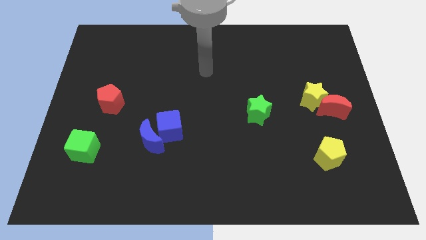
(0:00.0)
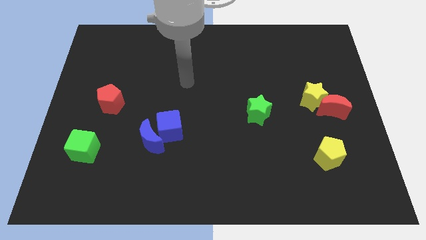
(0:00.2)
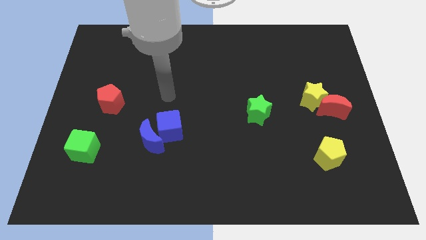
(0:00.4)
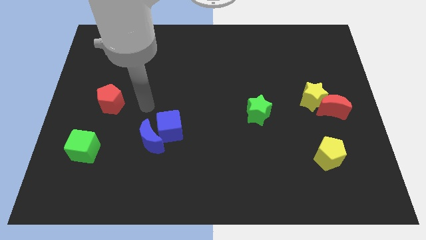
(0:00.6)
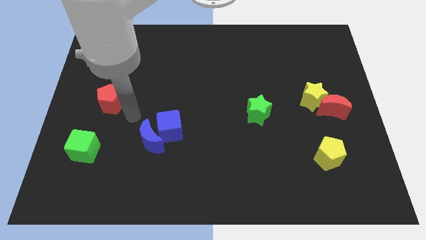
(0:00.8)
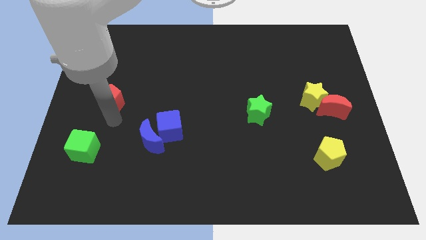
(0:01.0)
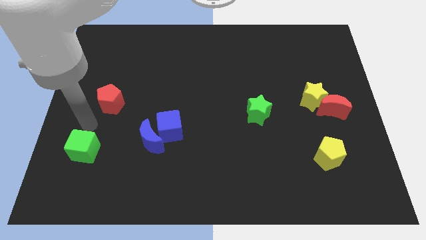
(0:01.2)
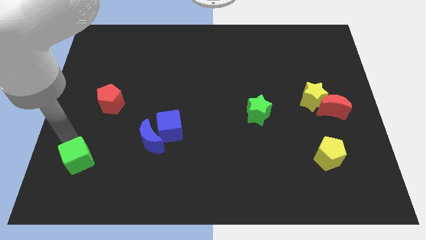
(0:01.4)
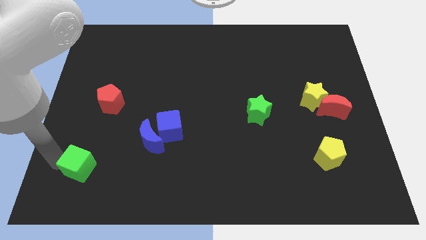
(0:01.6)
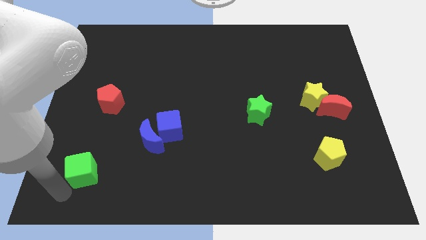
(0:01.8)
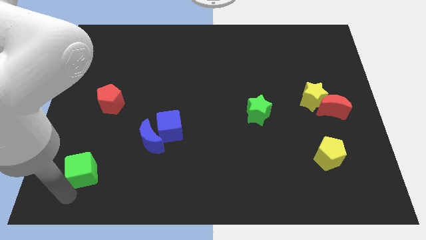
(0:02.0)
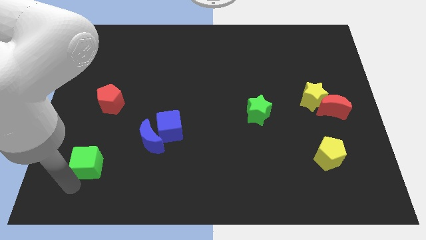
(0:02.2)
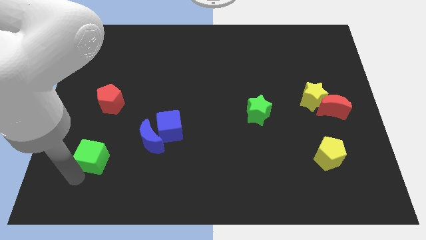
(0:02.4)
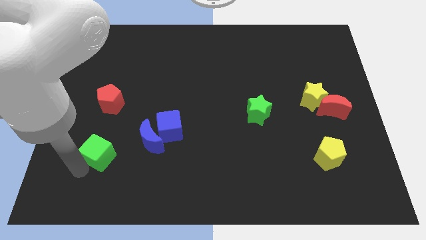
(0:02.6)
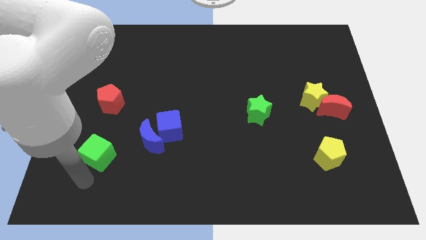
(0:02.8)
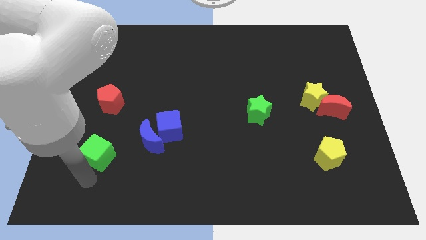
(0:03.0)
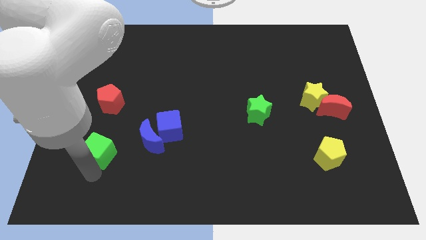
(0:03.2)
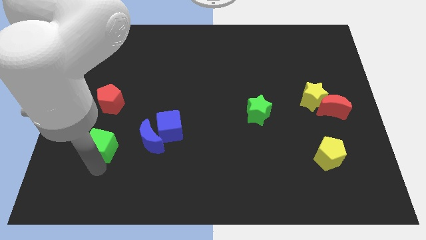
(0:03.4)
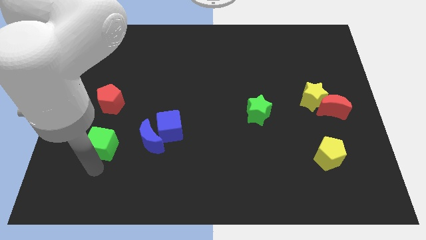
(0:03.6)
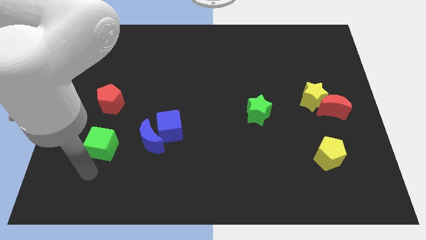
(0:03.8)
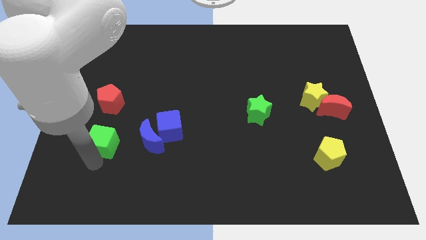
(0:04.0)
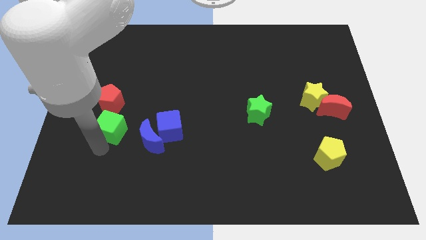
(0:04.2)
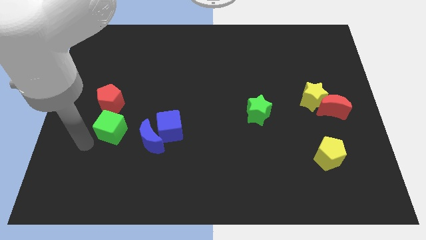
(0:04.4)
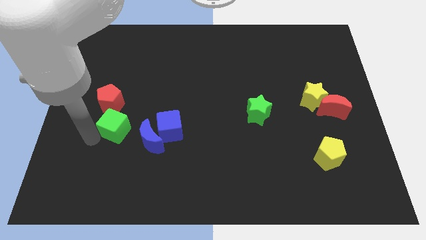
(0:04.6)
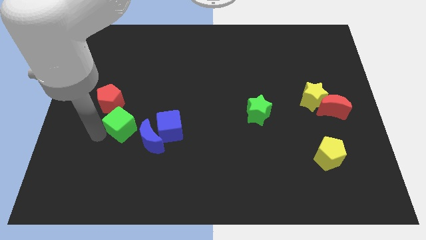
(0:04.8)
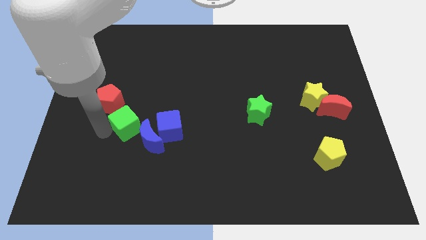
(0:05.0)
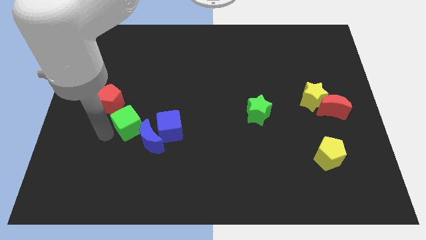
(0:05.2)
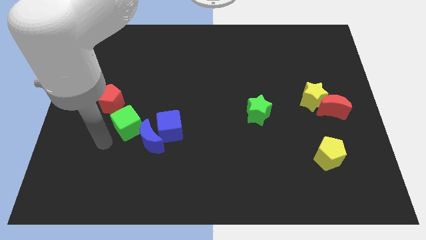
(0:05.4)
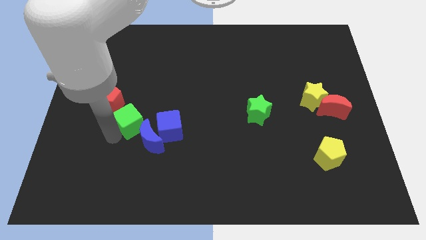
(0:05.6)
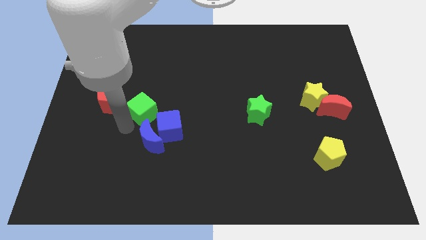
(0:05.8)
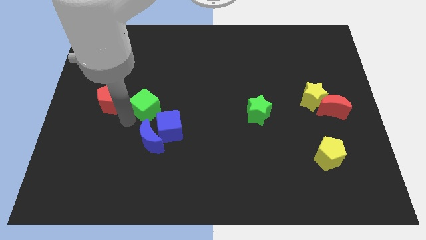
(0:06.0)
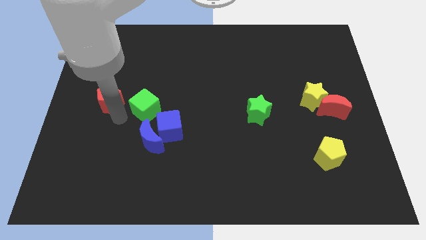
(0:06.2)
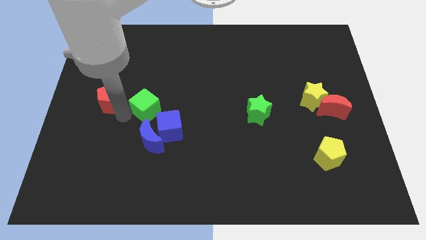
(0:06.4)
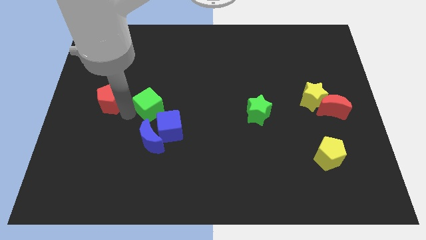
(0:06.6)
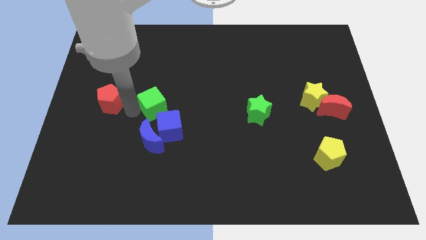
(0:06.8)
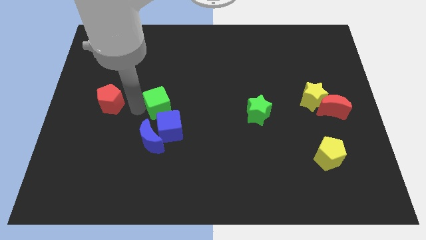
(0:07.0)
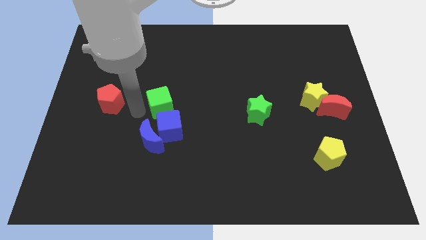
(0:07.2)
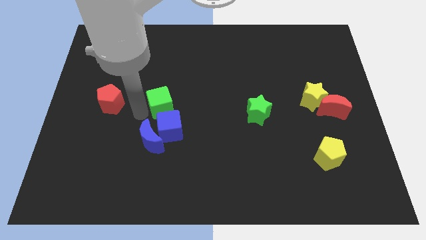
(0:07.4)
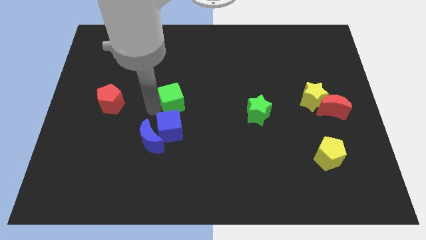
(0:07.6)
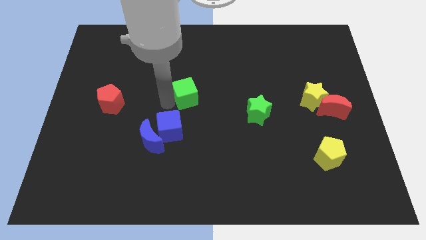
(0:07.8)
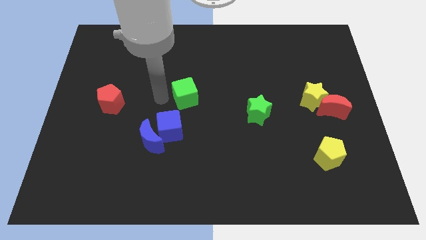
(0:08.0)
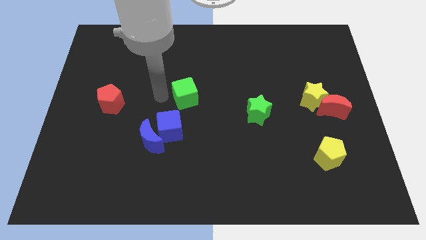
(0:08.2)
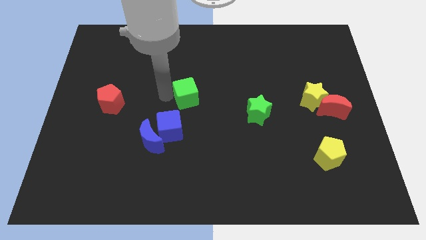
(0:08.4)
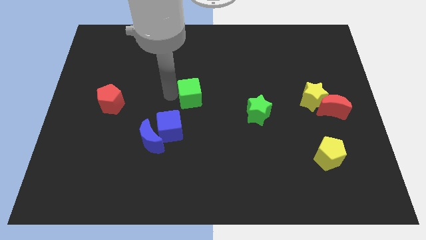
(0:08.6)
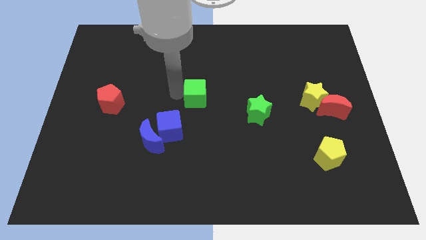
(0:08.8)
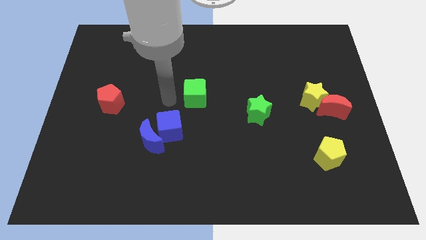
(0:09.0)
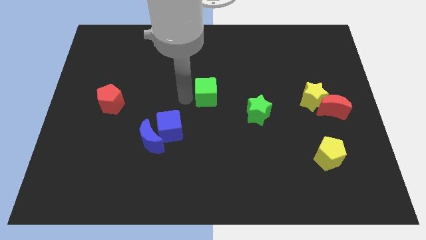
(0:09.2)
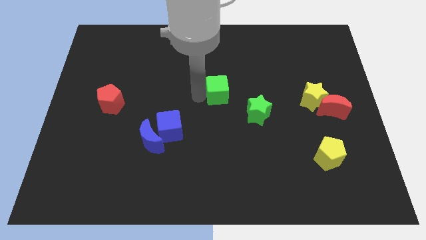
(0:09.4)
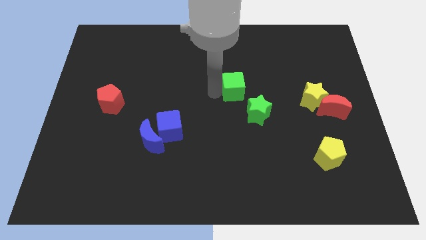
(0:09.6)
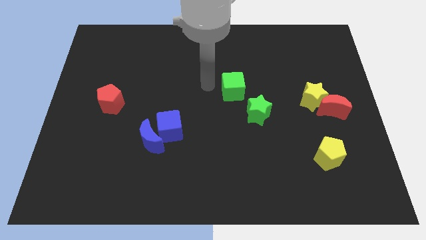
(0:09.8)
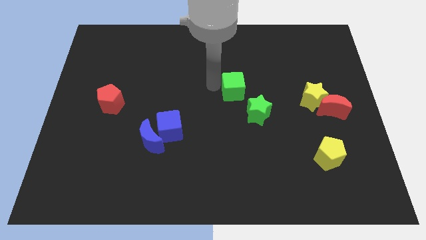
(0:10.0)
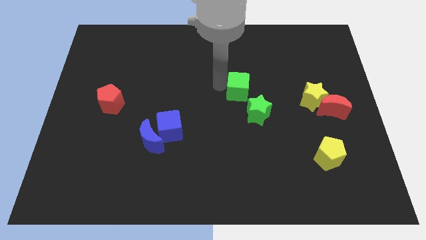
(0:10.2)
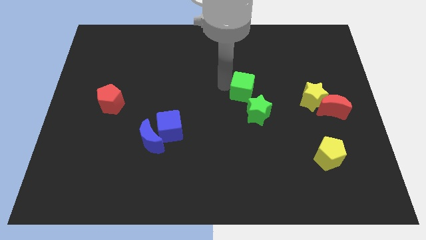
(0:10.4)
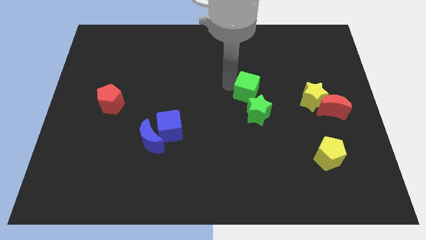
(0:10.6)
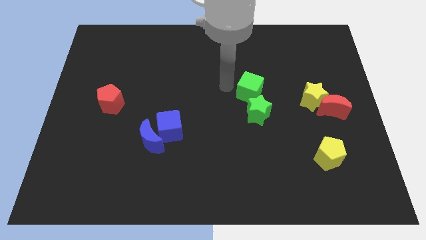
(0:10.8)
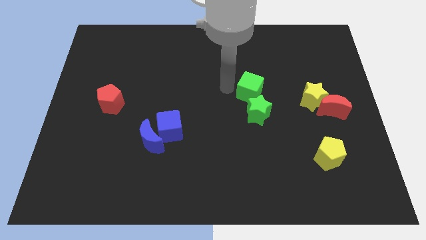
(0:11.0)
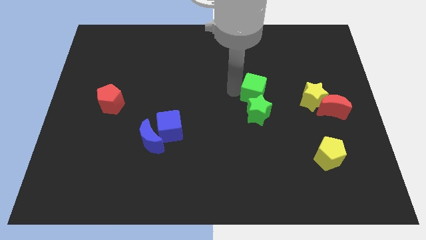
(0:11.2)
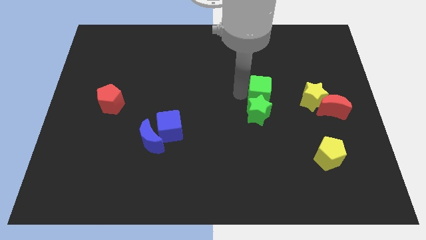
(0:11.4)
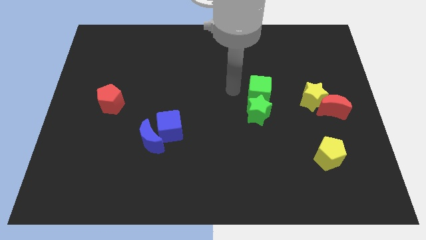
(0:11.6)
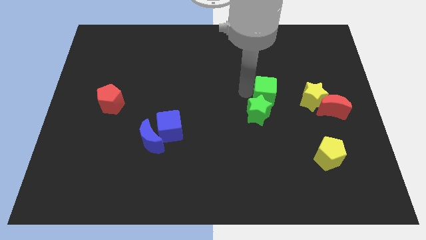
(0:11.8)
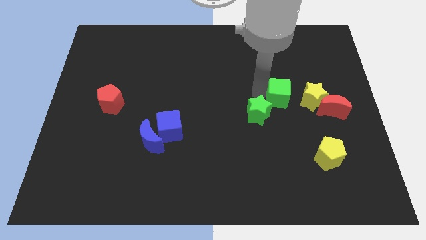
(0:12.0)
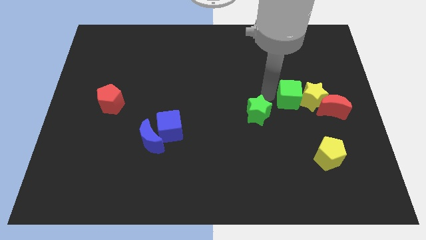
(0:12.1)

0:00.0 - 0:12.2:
push the green cube next to the yellow star

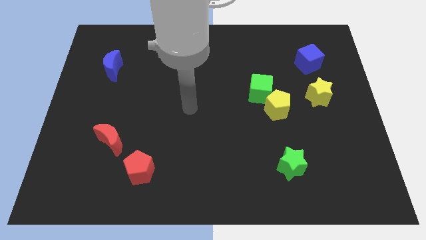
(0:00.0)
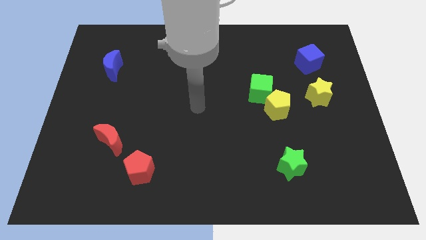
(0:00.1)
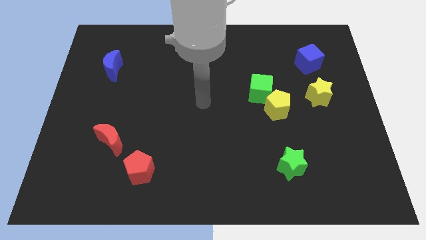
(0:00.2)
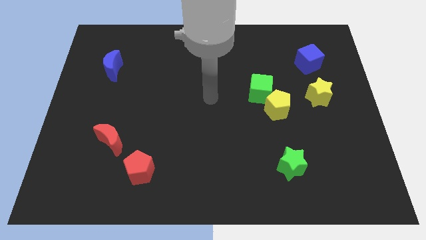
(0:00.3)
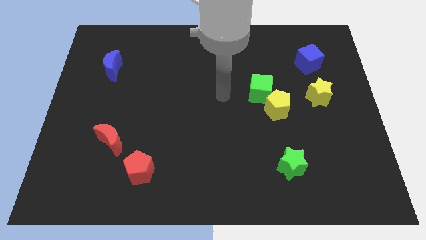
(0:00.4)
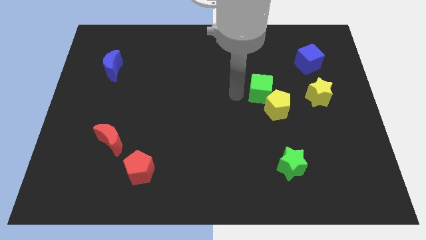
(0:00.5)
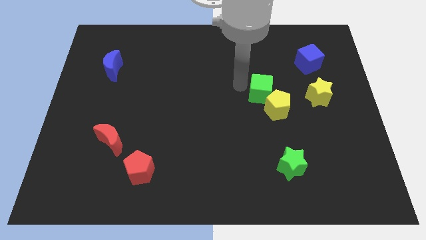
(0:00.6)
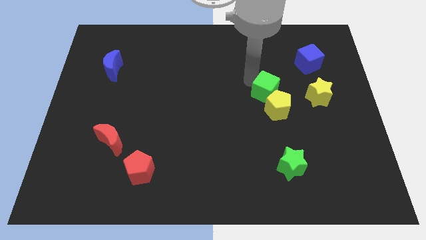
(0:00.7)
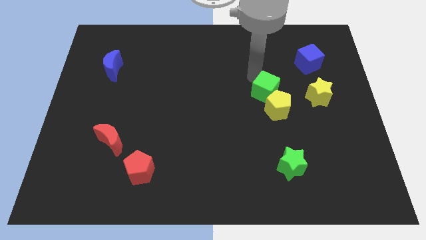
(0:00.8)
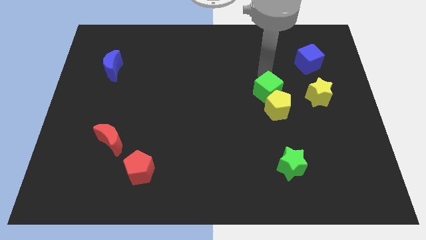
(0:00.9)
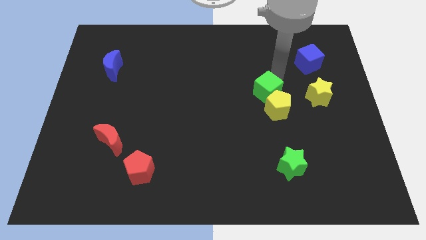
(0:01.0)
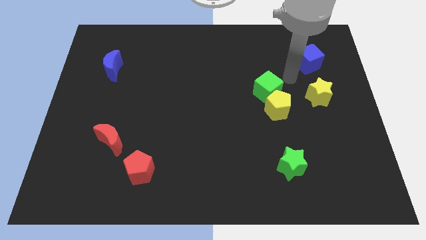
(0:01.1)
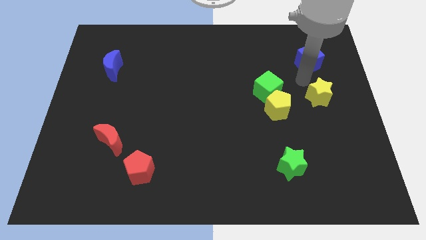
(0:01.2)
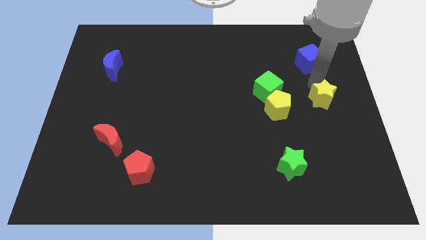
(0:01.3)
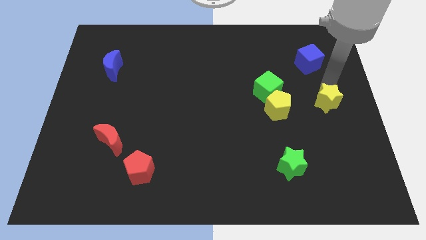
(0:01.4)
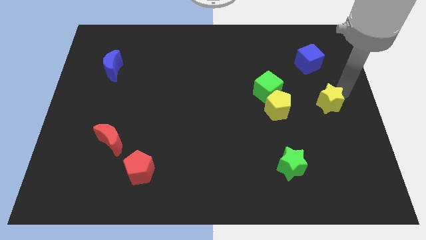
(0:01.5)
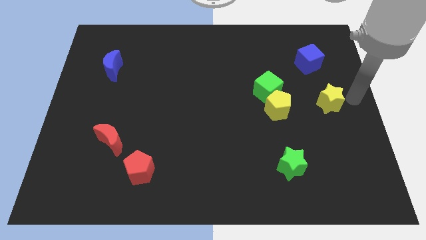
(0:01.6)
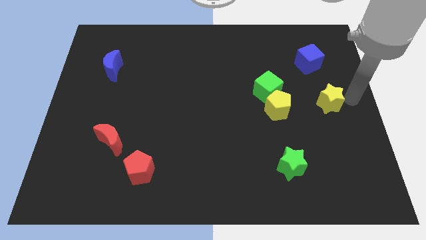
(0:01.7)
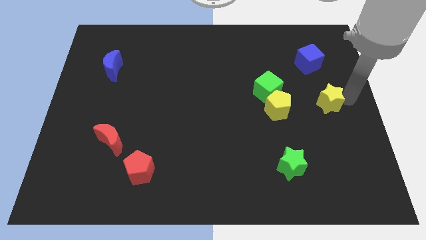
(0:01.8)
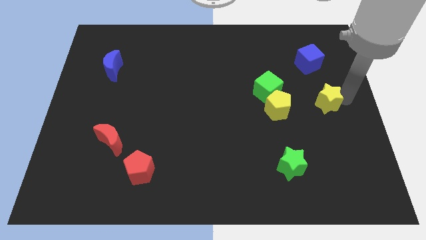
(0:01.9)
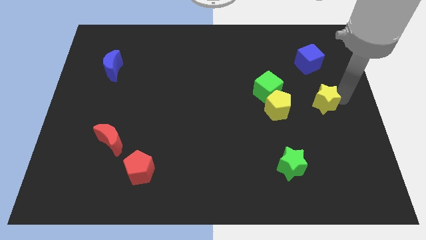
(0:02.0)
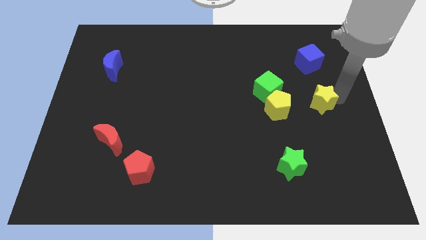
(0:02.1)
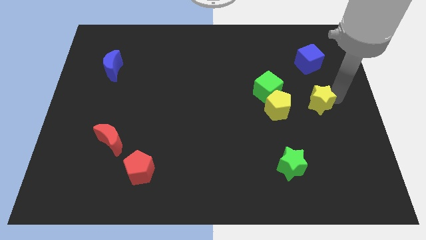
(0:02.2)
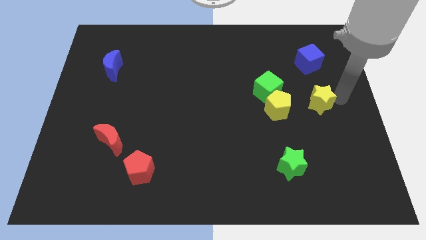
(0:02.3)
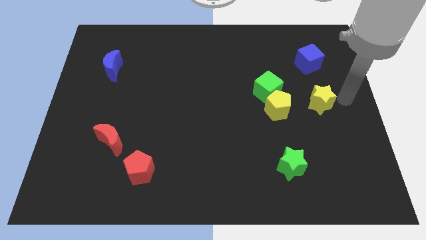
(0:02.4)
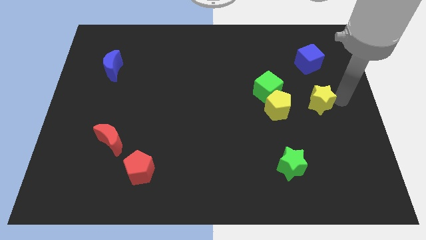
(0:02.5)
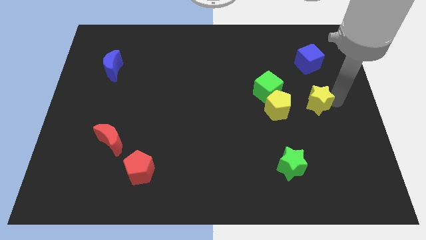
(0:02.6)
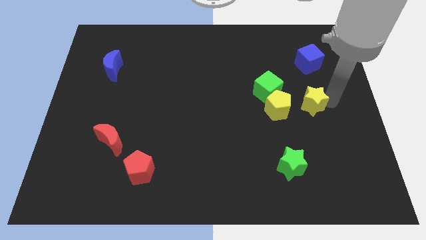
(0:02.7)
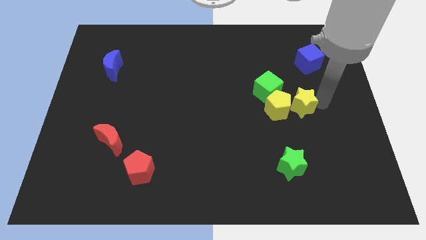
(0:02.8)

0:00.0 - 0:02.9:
push the yellow star close to the yellow pentagon
